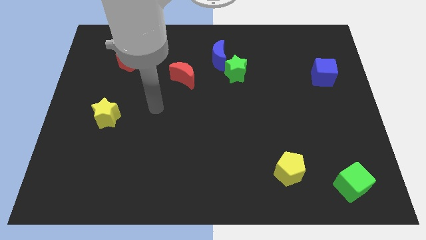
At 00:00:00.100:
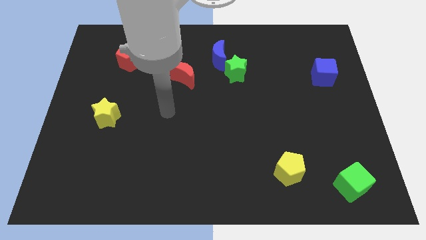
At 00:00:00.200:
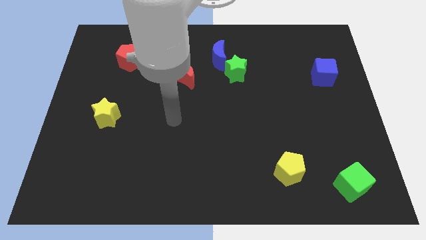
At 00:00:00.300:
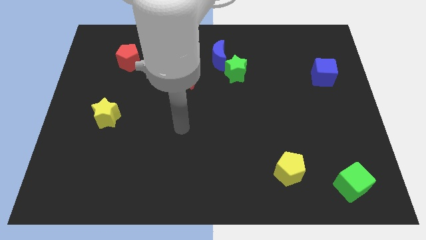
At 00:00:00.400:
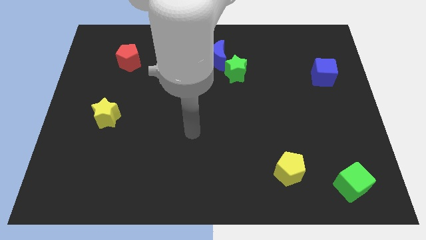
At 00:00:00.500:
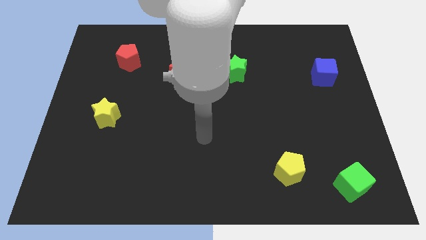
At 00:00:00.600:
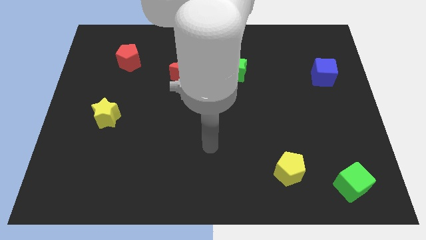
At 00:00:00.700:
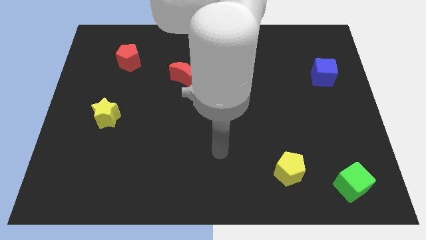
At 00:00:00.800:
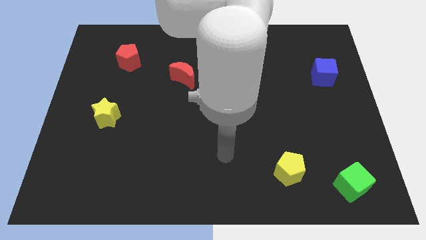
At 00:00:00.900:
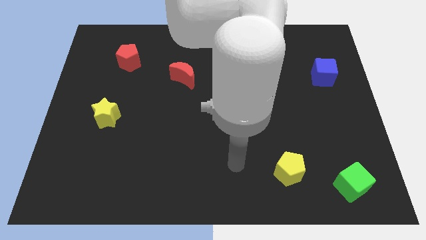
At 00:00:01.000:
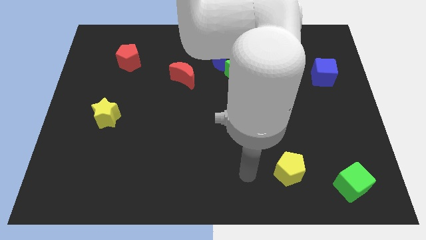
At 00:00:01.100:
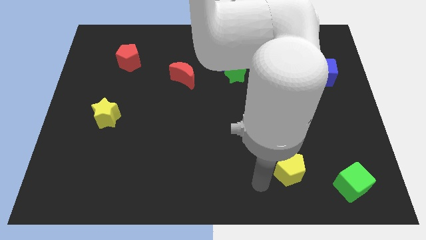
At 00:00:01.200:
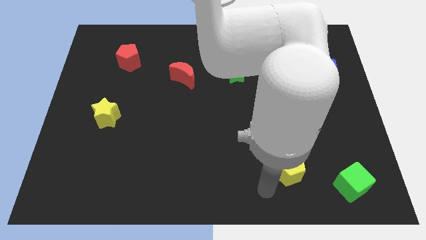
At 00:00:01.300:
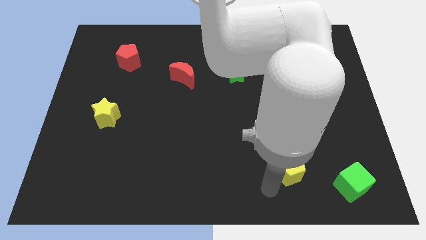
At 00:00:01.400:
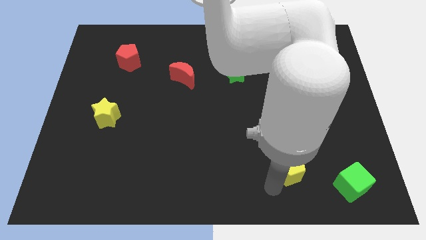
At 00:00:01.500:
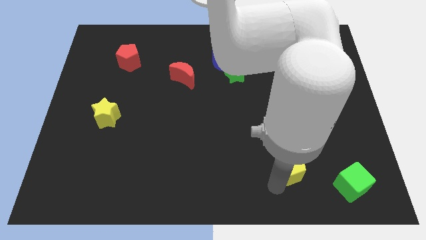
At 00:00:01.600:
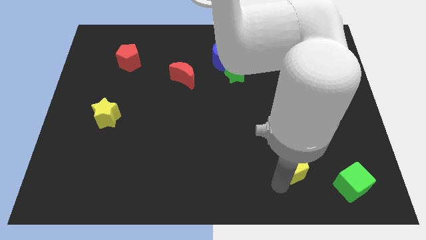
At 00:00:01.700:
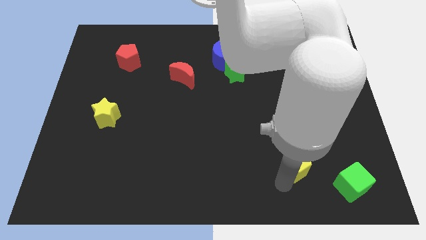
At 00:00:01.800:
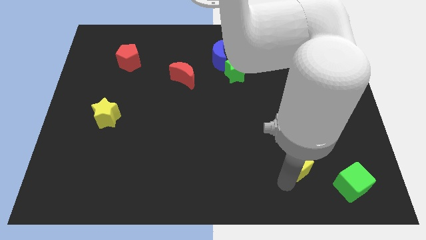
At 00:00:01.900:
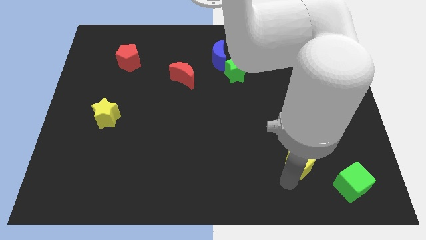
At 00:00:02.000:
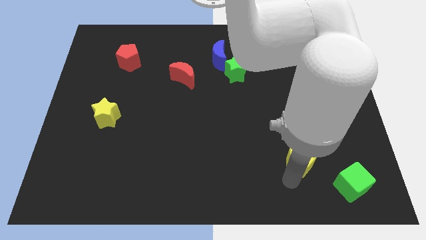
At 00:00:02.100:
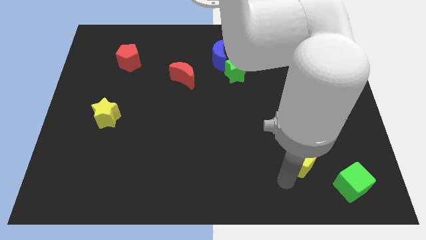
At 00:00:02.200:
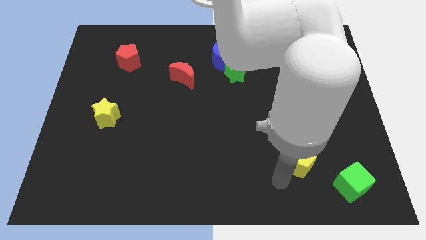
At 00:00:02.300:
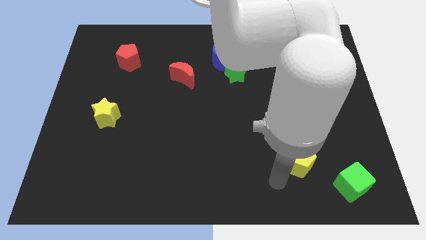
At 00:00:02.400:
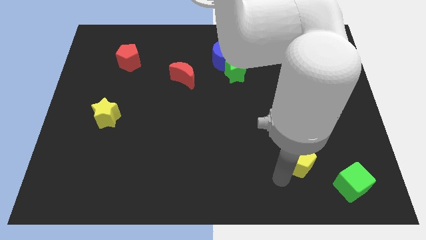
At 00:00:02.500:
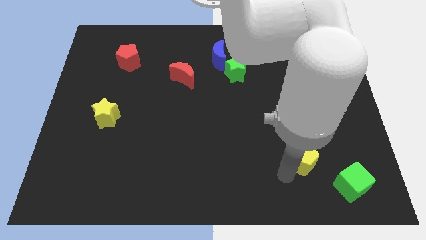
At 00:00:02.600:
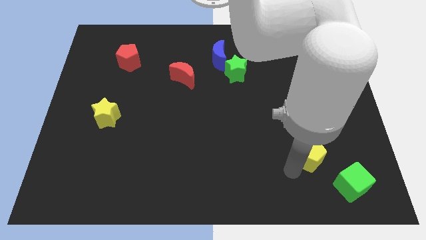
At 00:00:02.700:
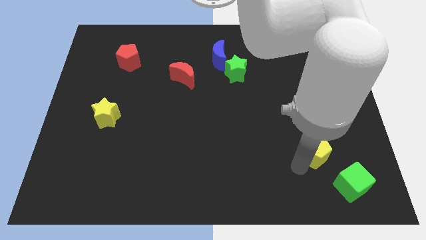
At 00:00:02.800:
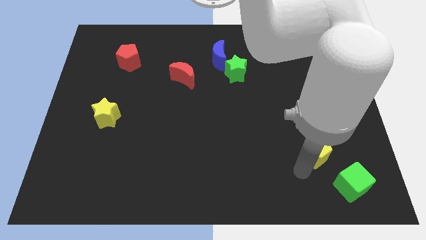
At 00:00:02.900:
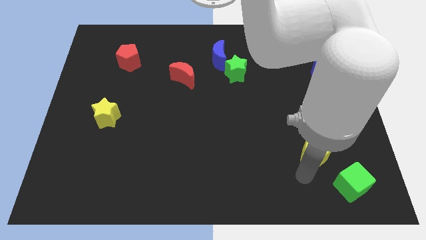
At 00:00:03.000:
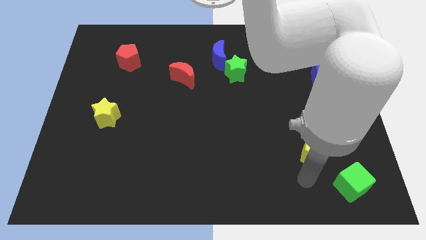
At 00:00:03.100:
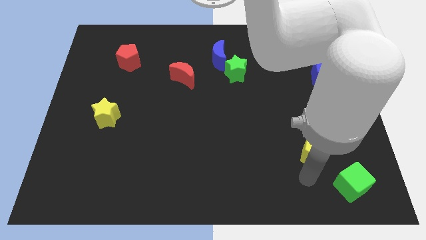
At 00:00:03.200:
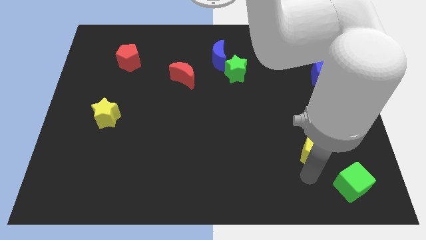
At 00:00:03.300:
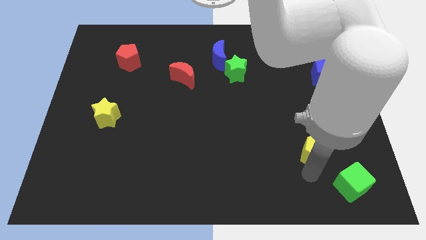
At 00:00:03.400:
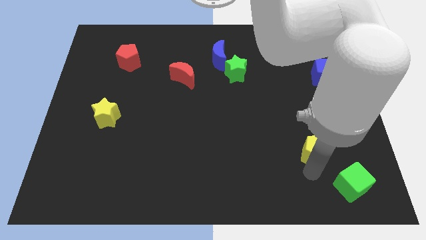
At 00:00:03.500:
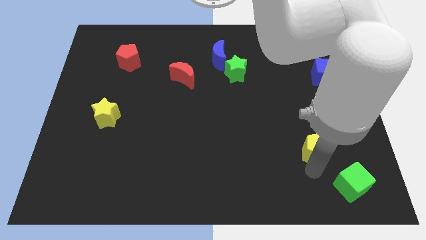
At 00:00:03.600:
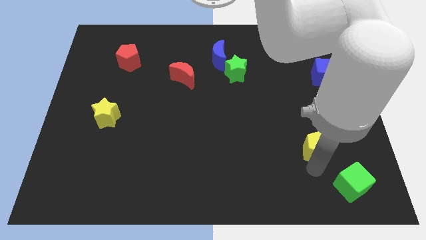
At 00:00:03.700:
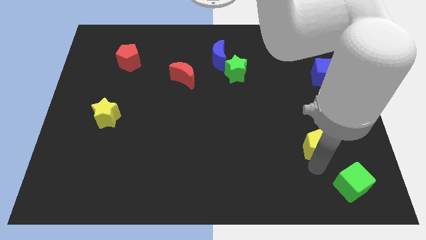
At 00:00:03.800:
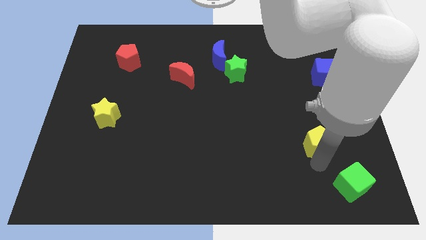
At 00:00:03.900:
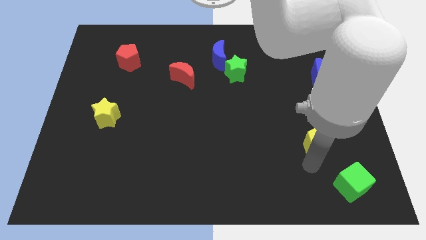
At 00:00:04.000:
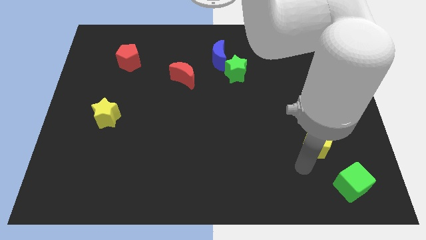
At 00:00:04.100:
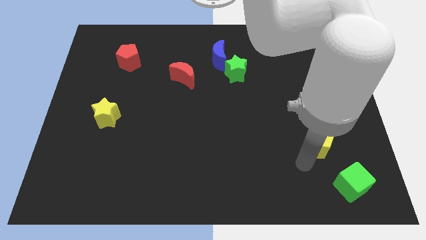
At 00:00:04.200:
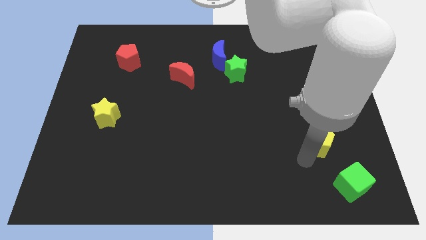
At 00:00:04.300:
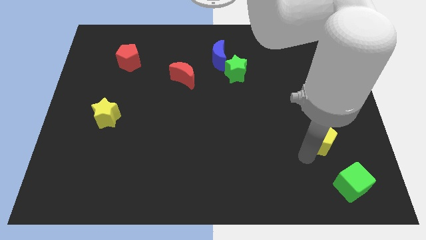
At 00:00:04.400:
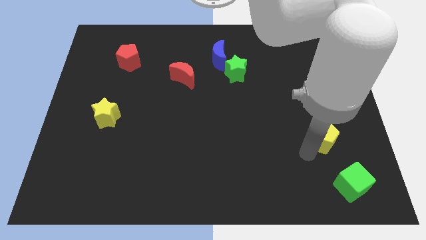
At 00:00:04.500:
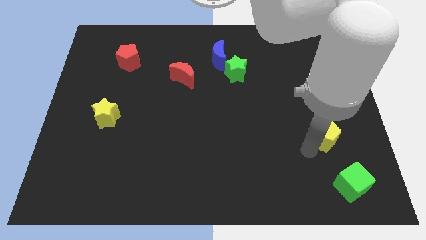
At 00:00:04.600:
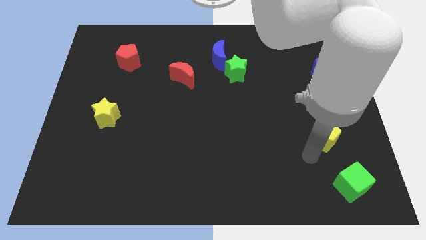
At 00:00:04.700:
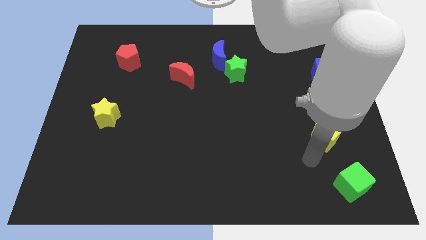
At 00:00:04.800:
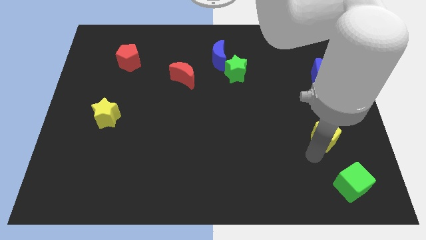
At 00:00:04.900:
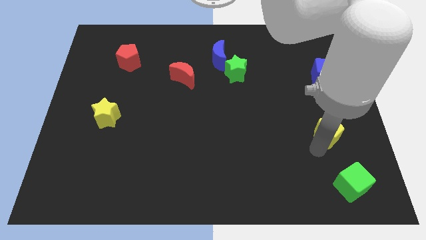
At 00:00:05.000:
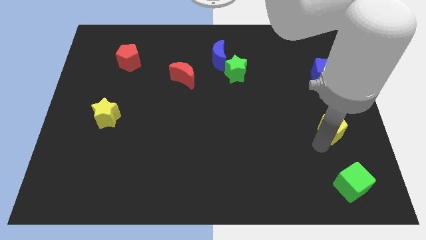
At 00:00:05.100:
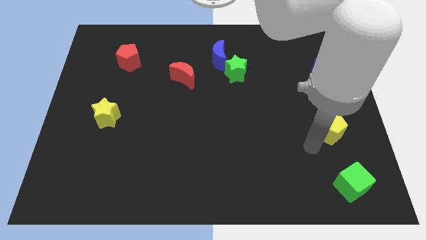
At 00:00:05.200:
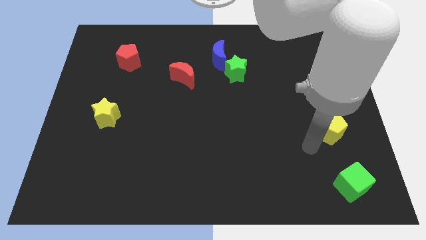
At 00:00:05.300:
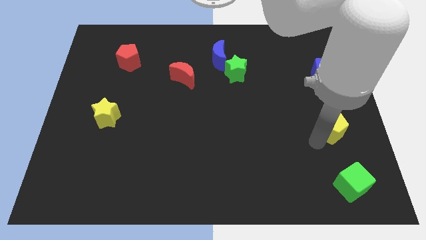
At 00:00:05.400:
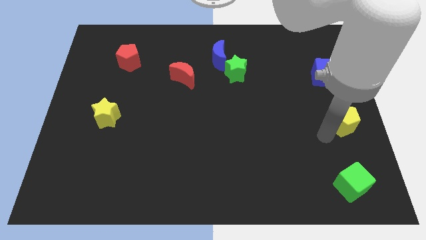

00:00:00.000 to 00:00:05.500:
slide the yellow pentagon to the right side of the board

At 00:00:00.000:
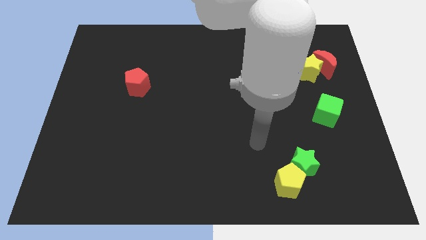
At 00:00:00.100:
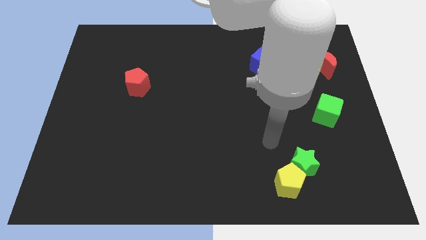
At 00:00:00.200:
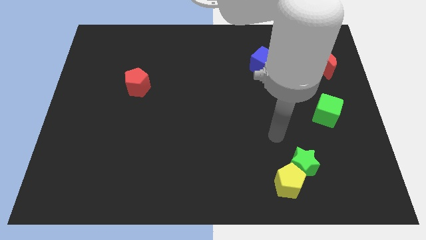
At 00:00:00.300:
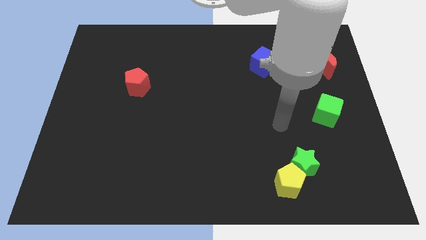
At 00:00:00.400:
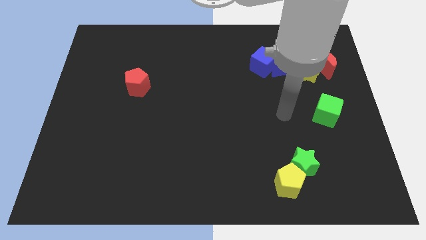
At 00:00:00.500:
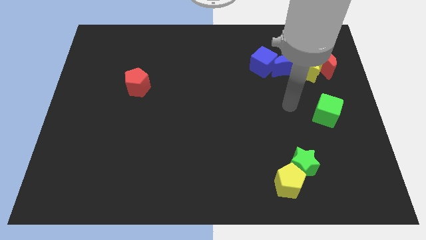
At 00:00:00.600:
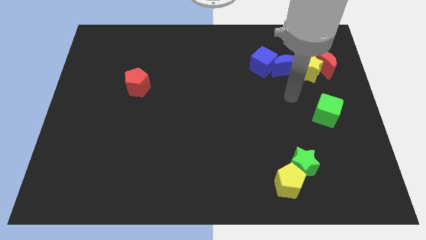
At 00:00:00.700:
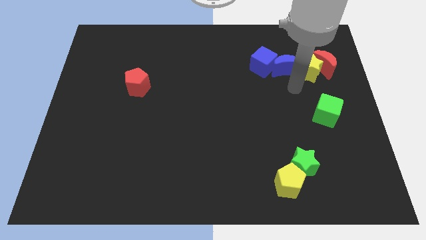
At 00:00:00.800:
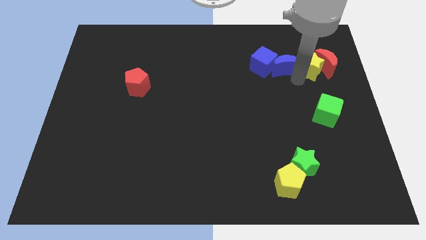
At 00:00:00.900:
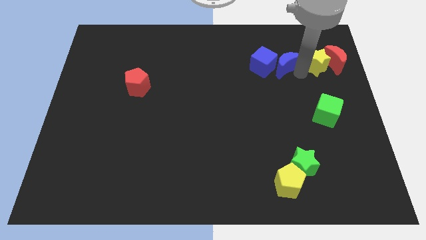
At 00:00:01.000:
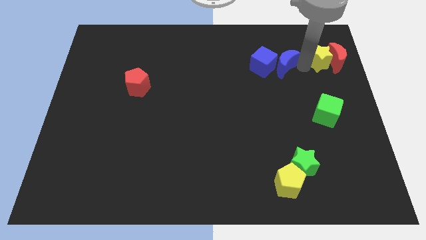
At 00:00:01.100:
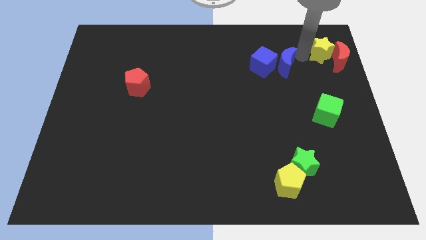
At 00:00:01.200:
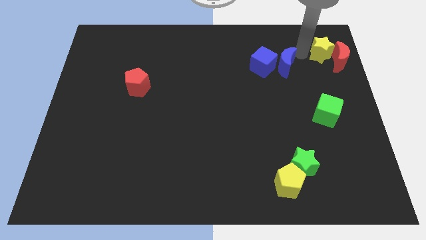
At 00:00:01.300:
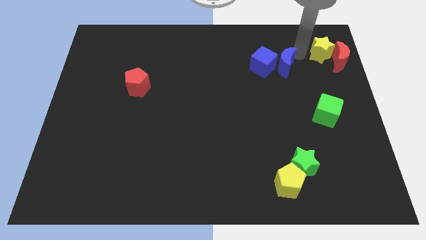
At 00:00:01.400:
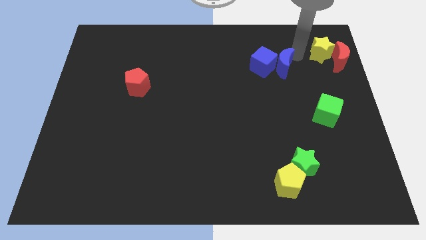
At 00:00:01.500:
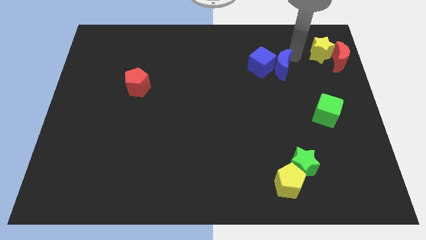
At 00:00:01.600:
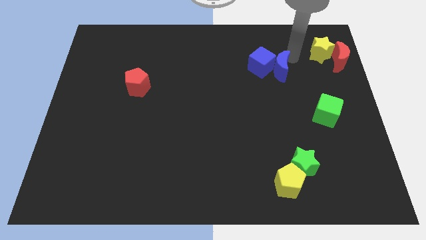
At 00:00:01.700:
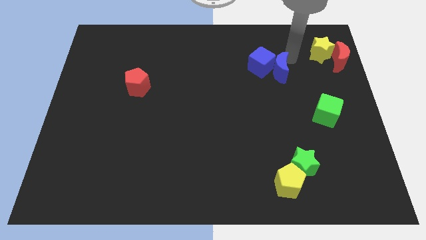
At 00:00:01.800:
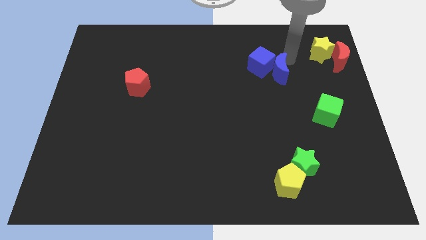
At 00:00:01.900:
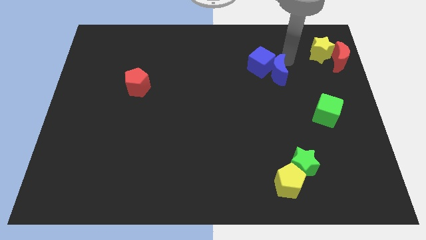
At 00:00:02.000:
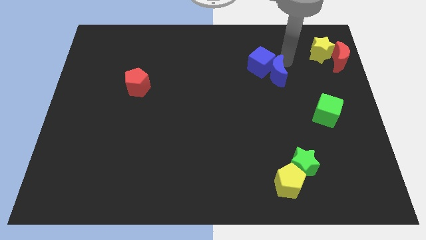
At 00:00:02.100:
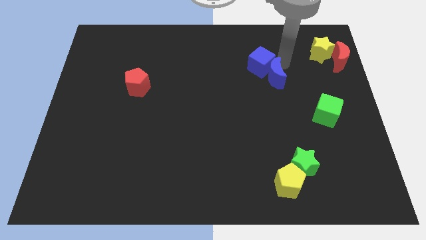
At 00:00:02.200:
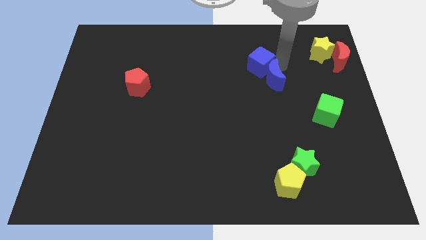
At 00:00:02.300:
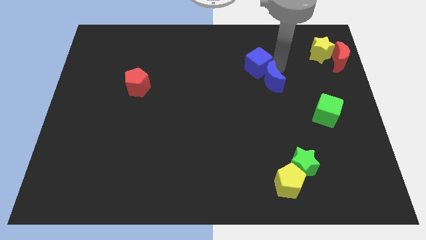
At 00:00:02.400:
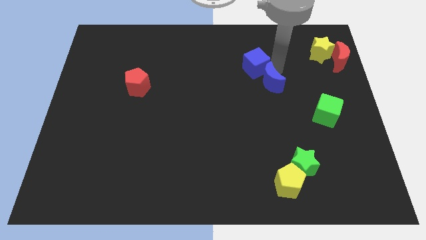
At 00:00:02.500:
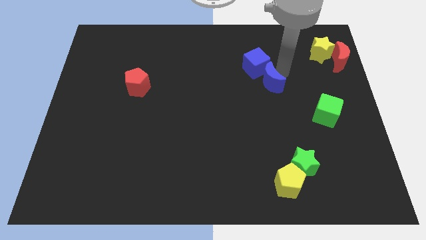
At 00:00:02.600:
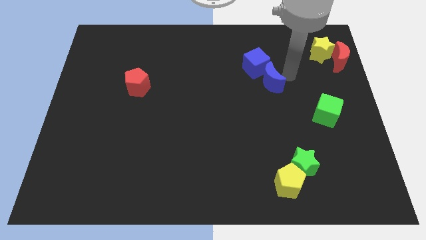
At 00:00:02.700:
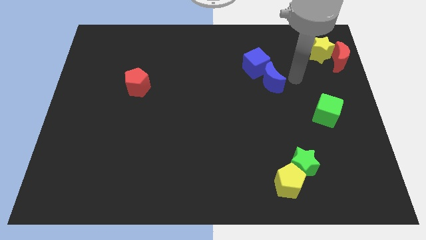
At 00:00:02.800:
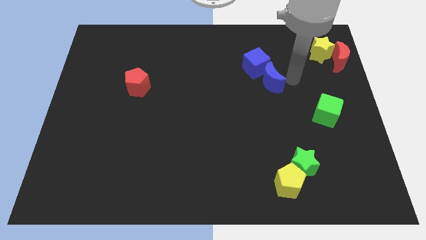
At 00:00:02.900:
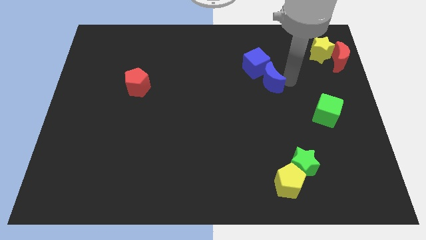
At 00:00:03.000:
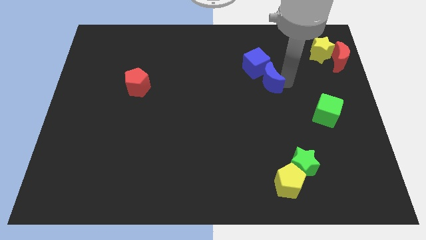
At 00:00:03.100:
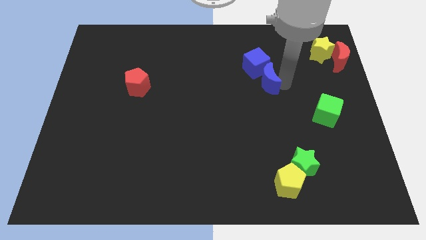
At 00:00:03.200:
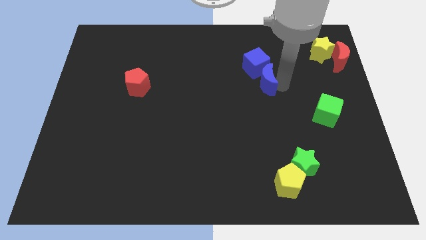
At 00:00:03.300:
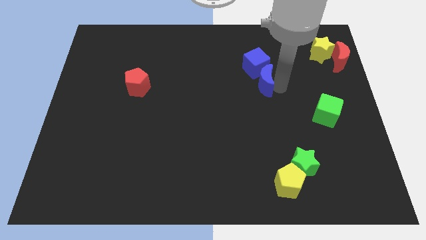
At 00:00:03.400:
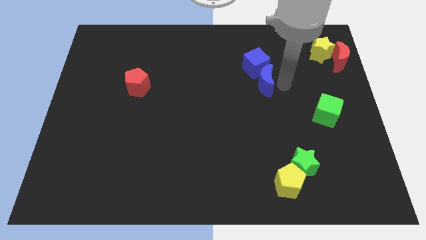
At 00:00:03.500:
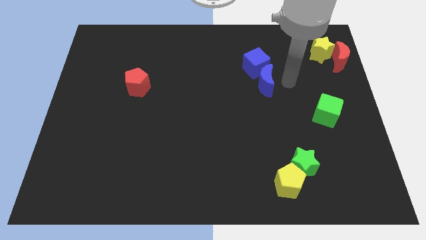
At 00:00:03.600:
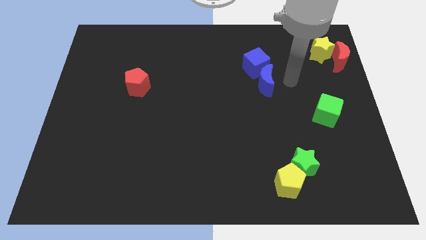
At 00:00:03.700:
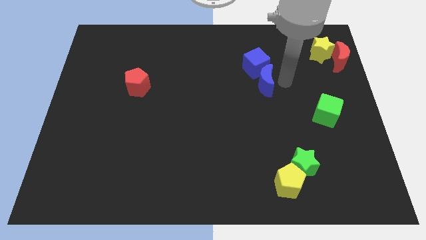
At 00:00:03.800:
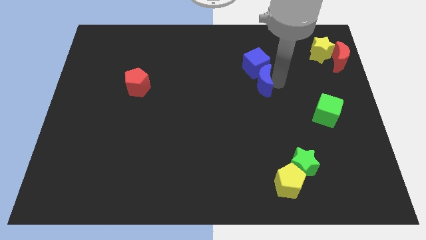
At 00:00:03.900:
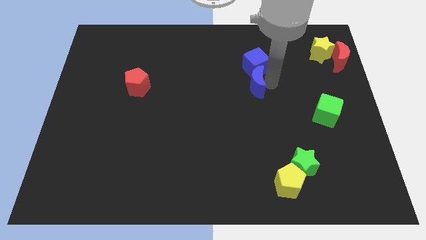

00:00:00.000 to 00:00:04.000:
put the blue moon to the center
